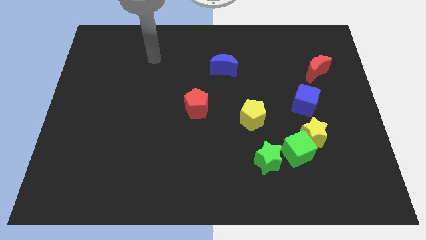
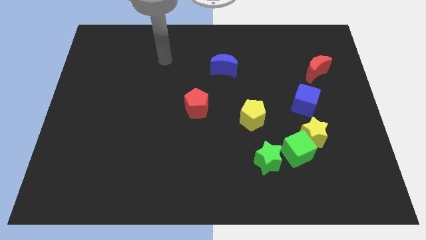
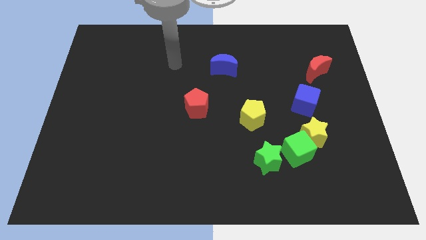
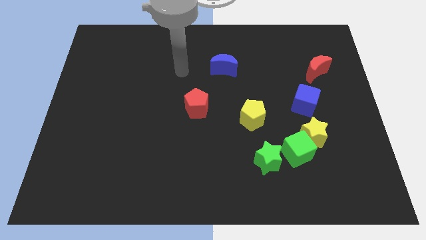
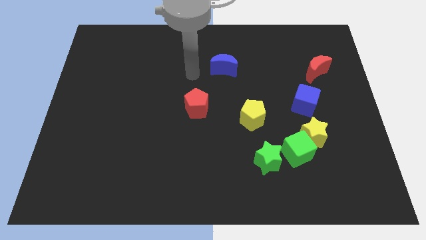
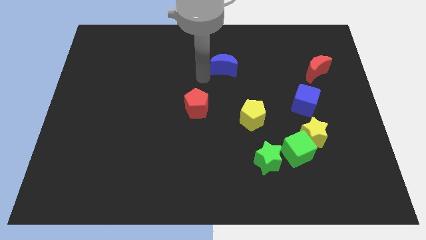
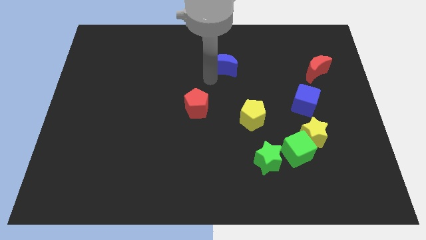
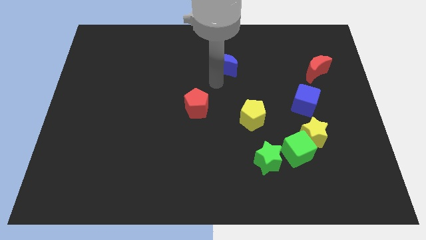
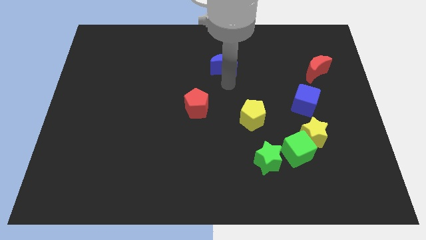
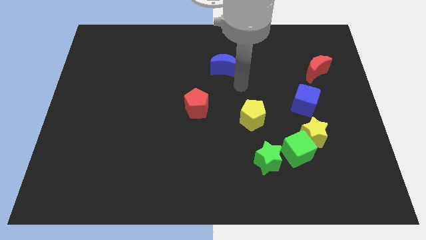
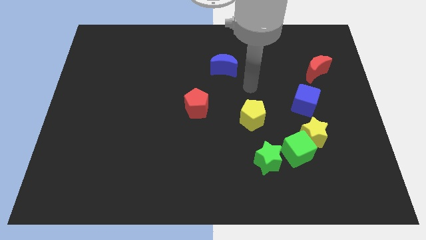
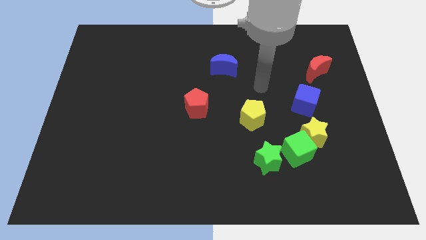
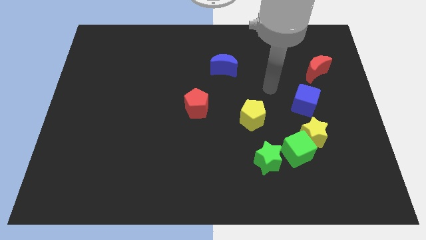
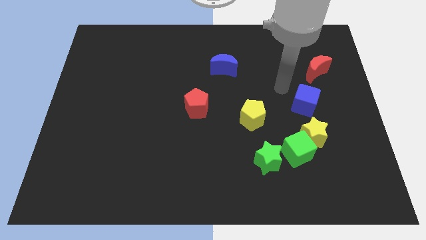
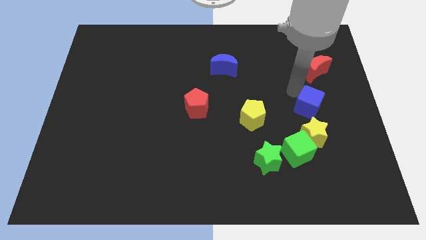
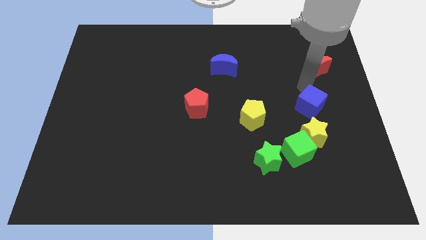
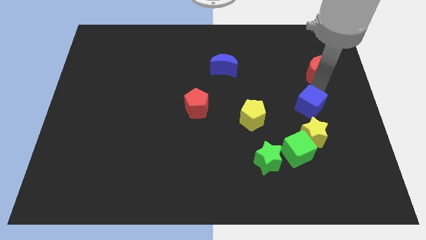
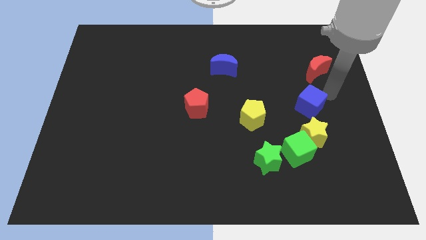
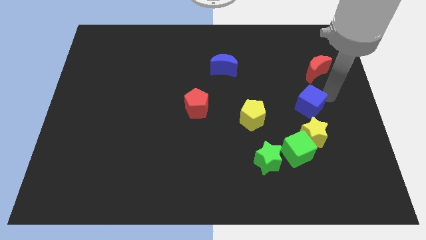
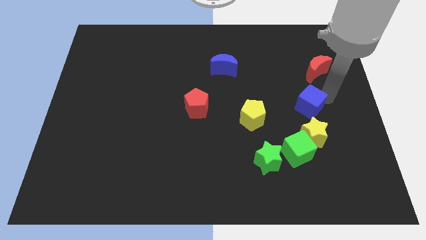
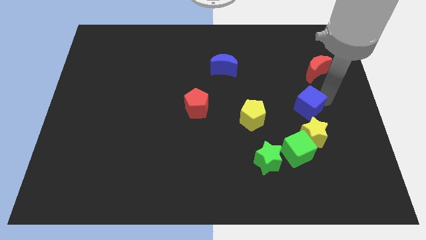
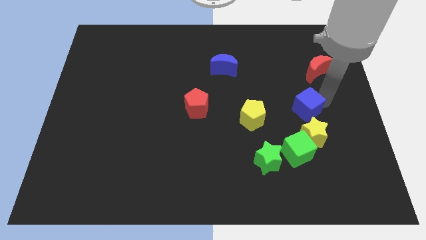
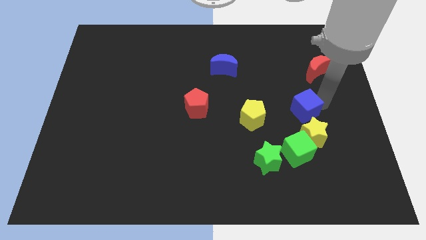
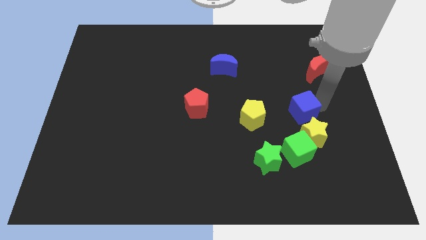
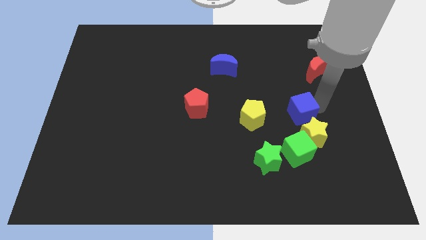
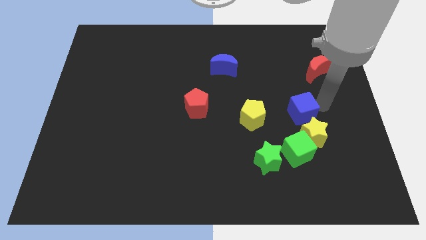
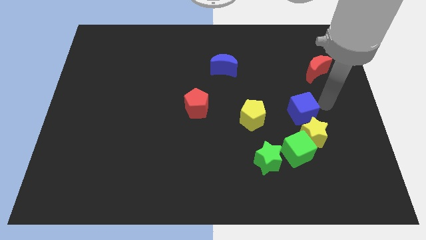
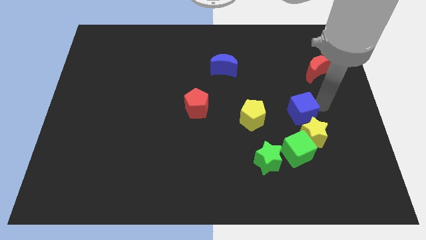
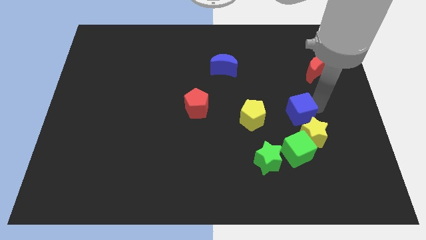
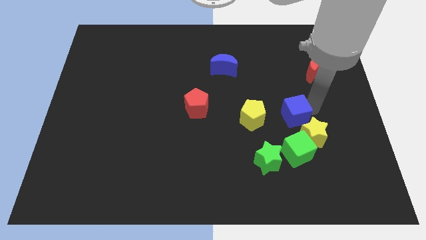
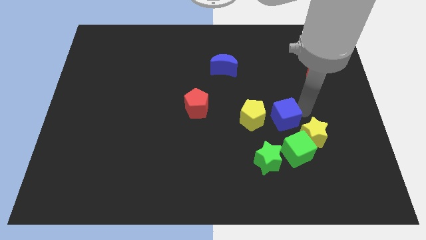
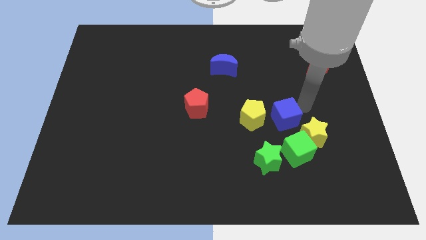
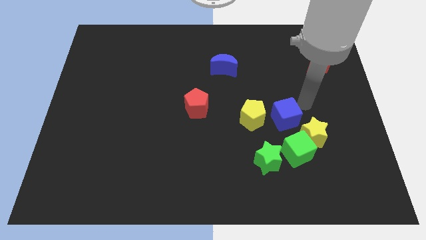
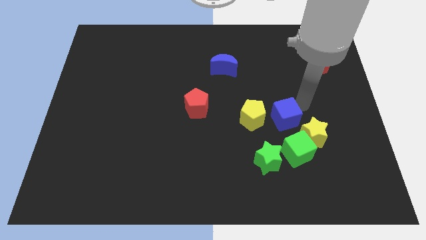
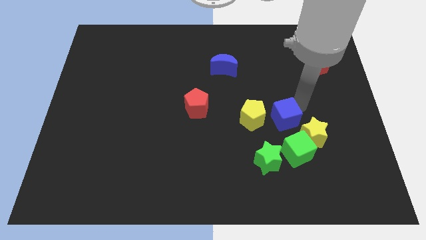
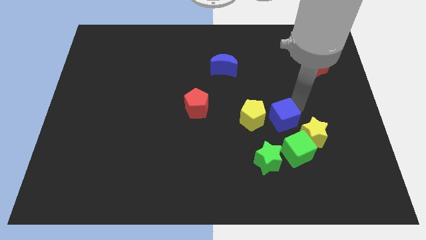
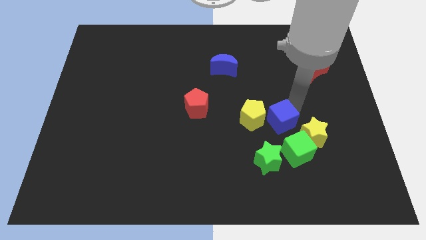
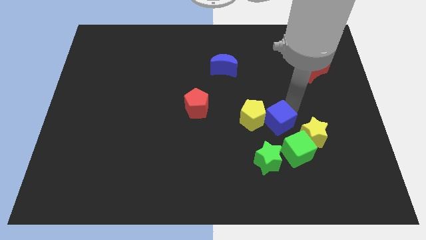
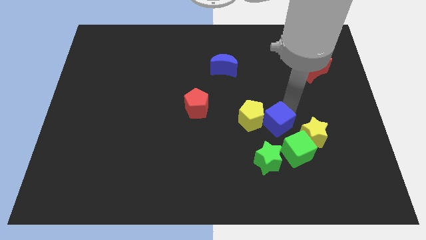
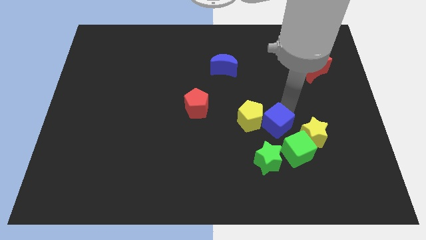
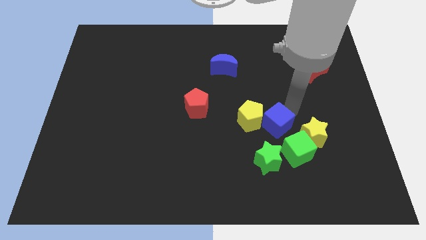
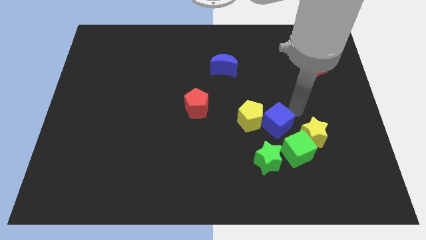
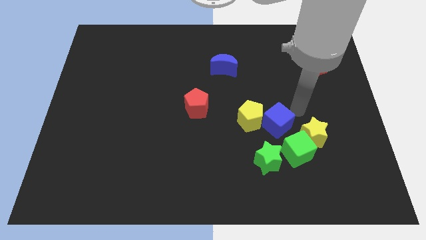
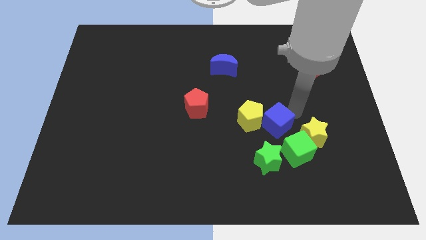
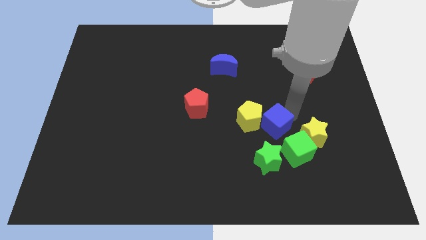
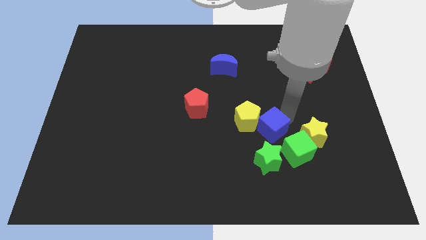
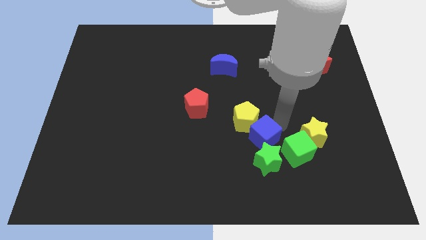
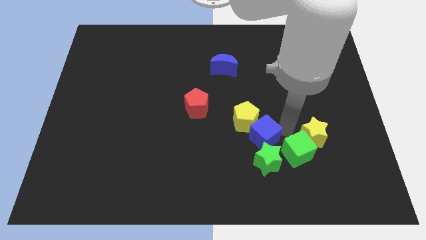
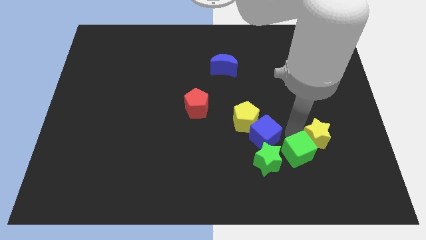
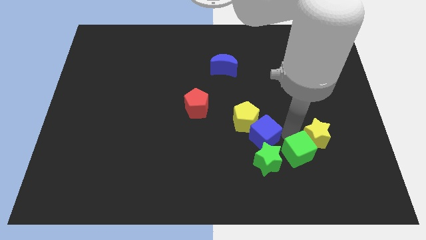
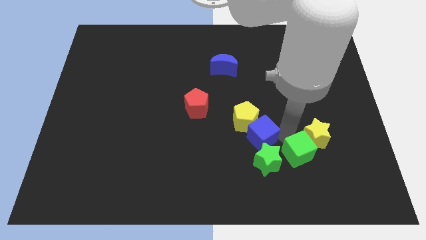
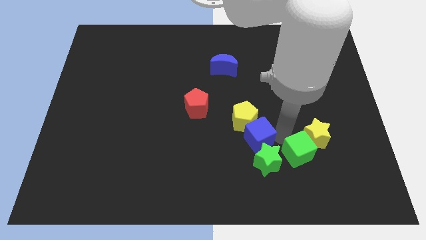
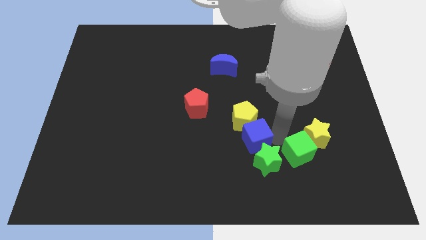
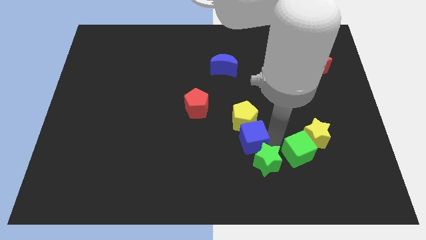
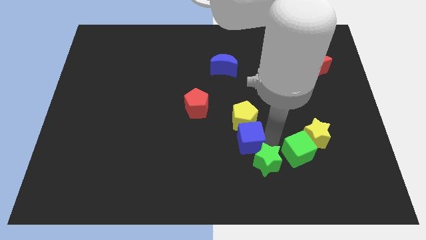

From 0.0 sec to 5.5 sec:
slide the blue cube diagonally down and to the left of the yellow pentagon

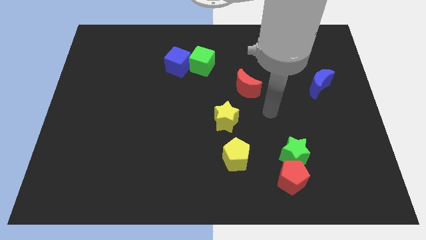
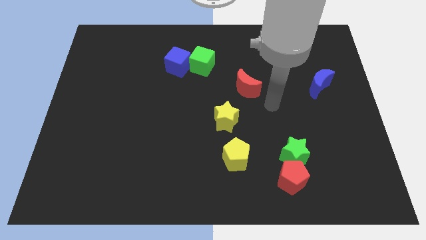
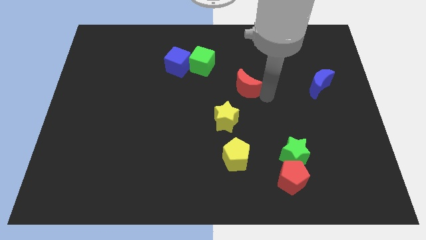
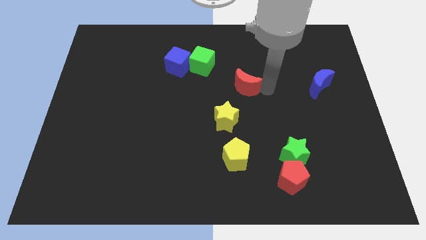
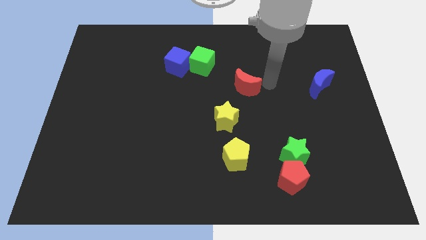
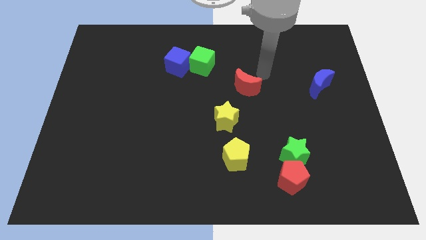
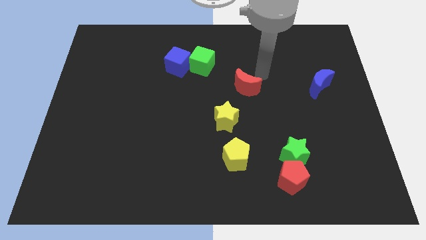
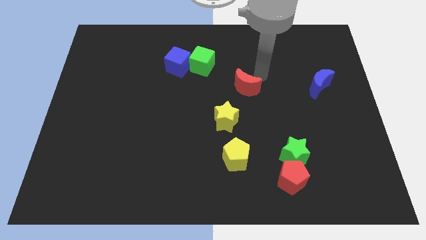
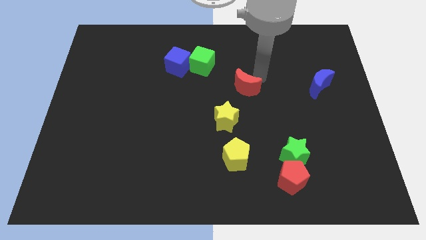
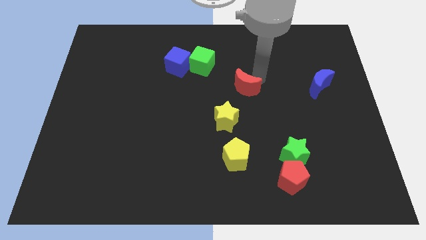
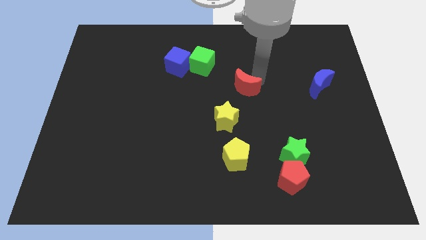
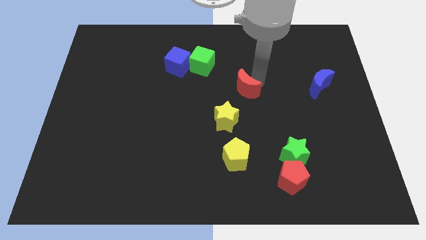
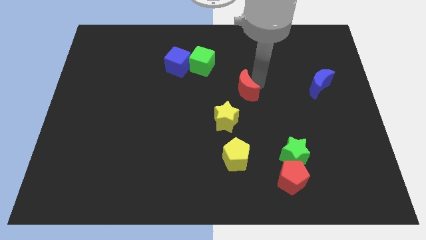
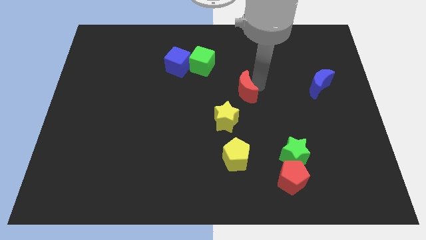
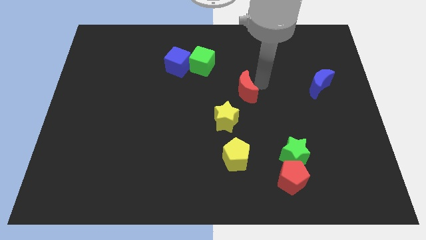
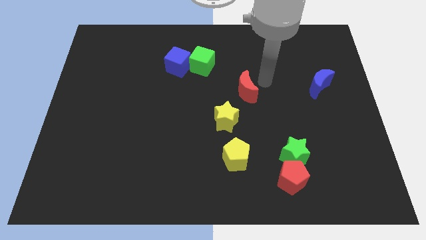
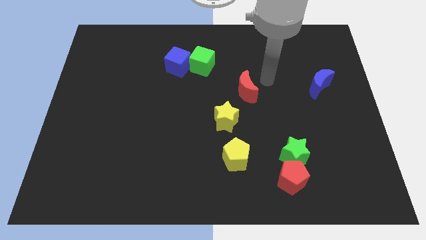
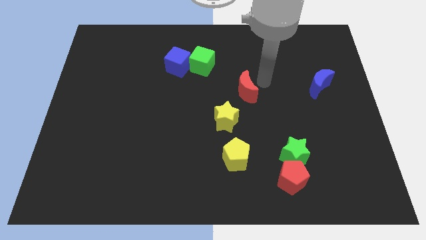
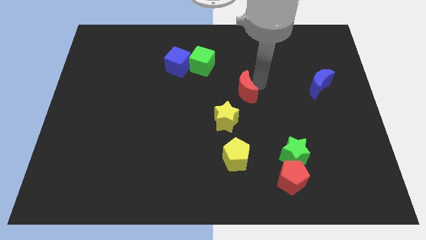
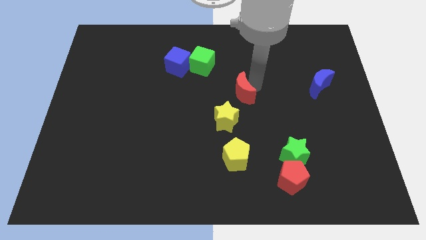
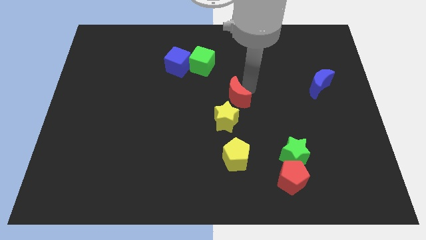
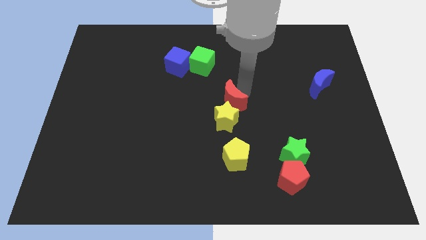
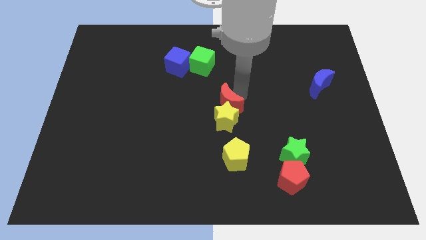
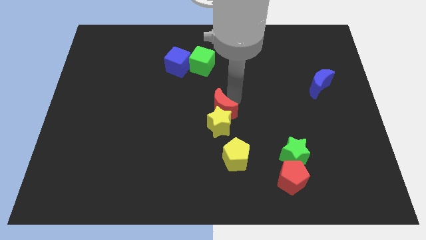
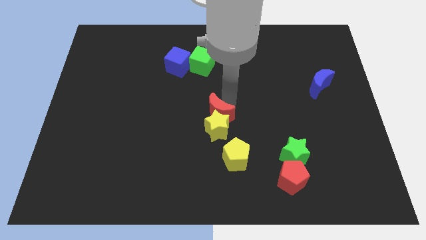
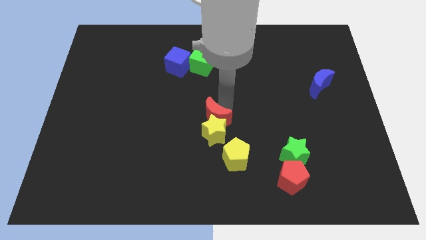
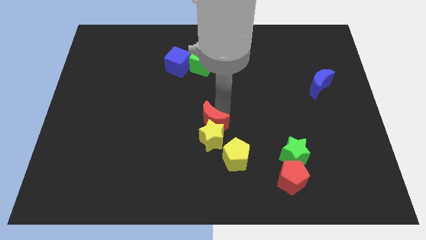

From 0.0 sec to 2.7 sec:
slide the red moon to the top left of the yellow pentagon
